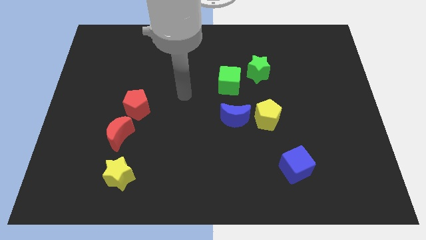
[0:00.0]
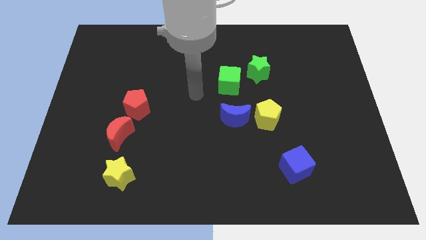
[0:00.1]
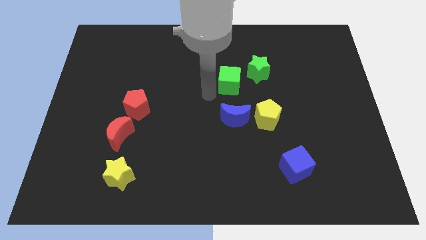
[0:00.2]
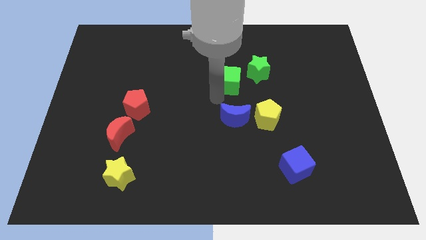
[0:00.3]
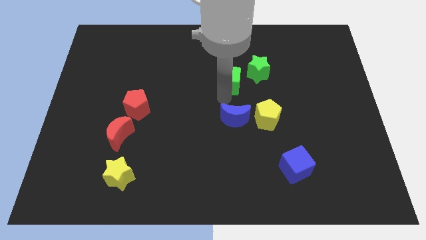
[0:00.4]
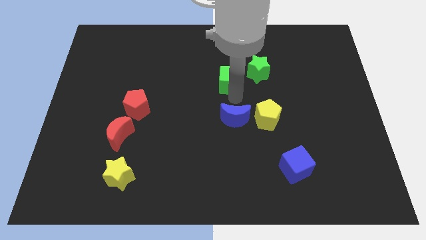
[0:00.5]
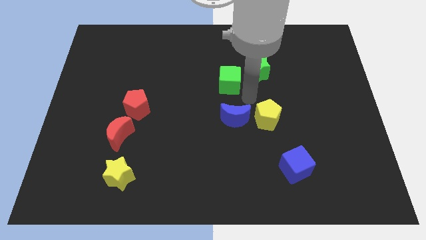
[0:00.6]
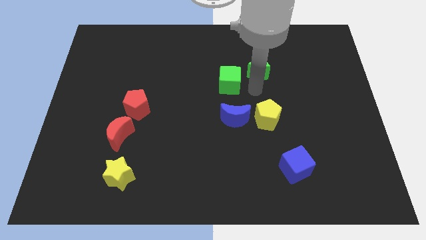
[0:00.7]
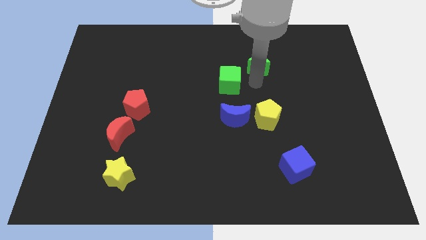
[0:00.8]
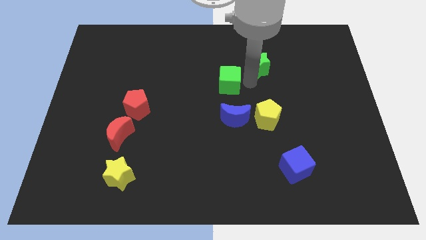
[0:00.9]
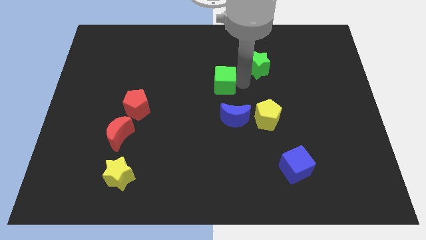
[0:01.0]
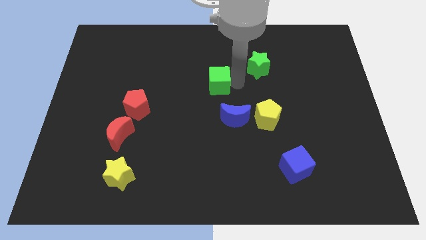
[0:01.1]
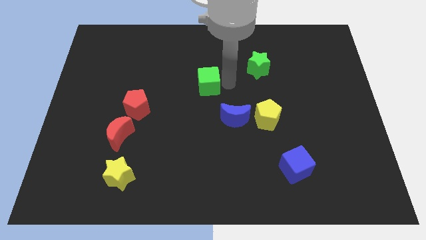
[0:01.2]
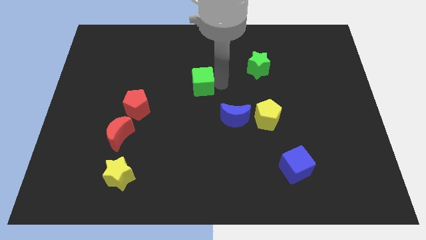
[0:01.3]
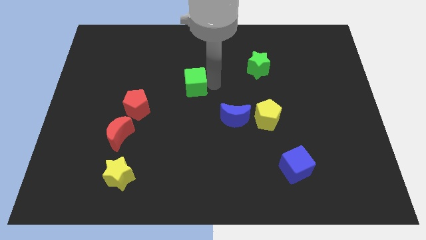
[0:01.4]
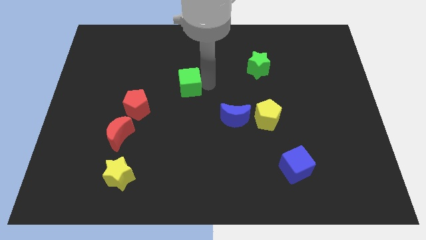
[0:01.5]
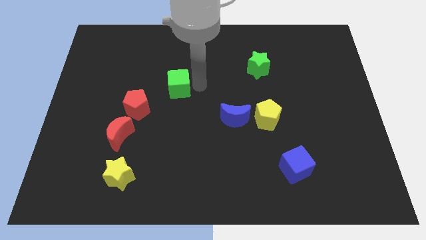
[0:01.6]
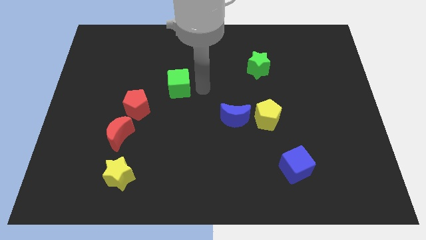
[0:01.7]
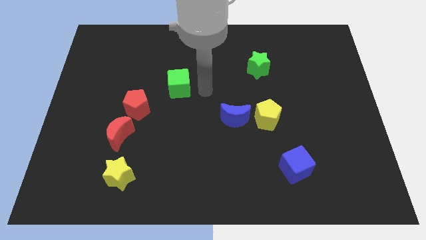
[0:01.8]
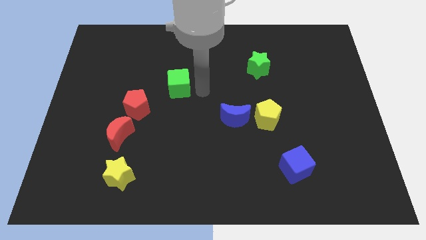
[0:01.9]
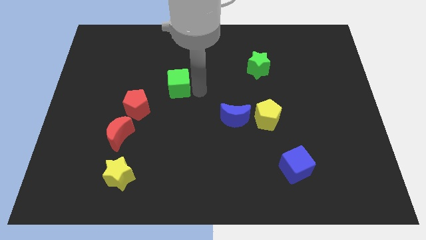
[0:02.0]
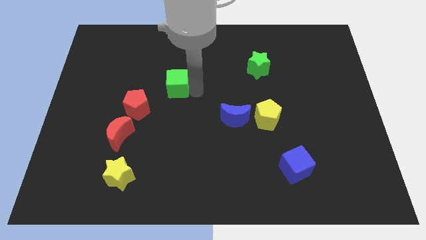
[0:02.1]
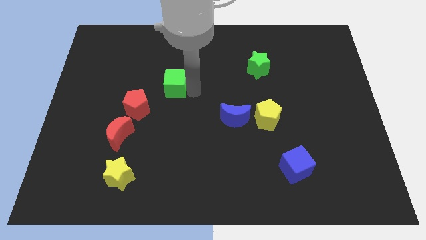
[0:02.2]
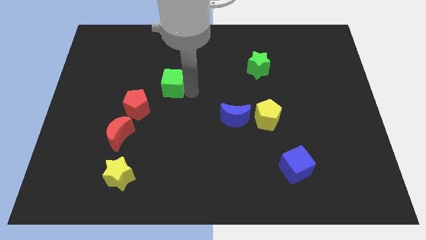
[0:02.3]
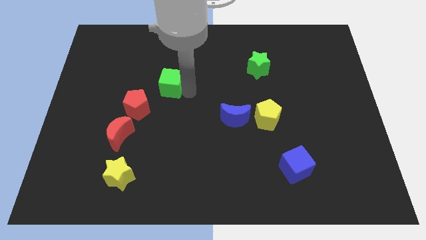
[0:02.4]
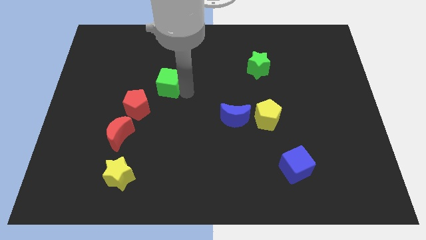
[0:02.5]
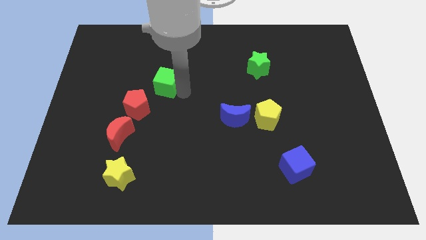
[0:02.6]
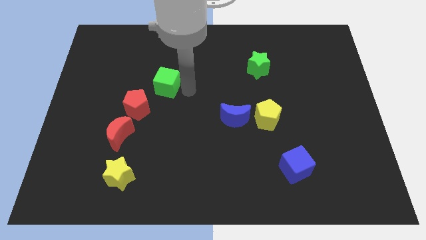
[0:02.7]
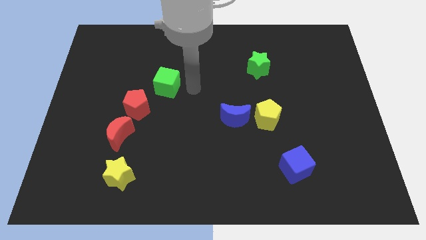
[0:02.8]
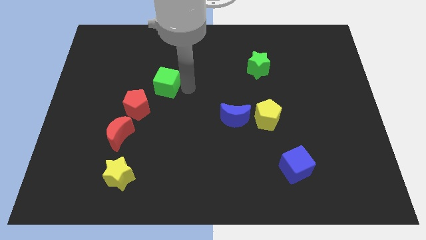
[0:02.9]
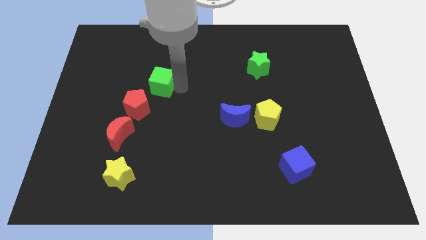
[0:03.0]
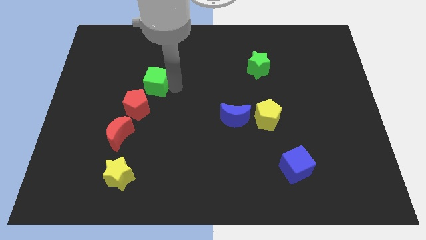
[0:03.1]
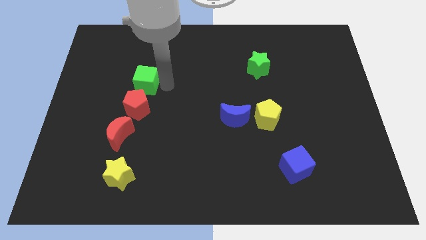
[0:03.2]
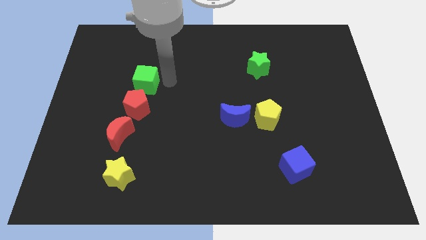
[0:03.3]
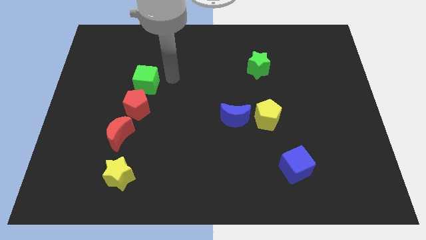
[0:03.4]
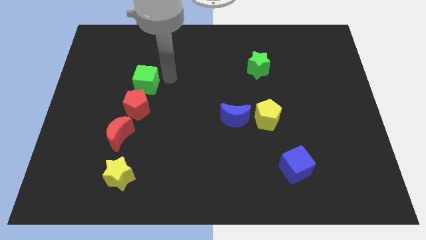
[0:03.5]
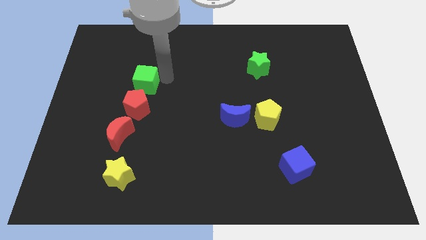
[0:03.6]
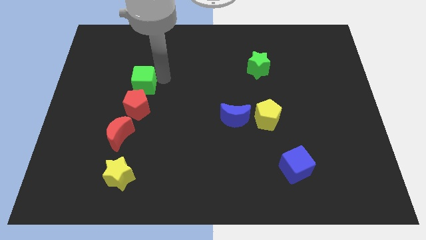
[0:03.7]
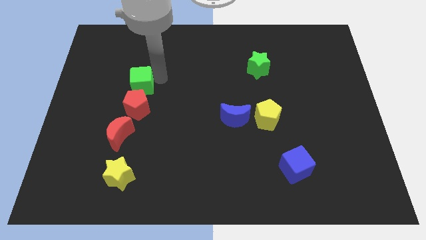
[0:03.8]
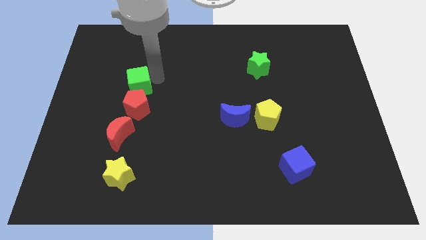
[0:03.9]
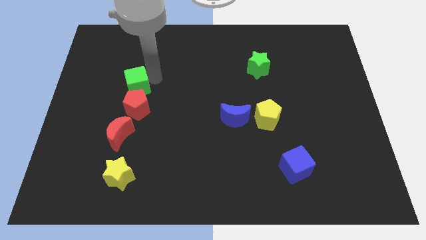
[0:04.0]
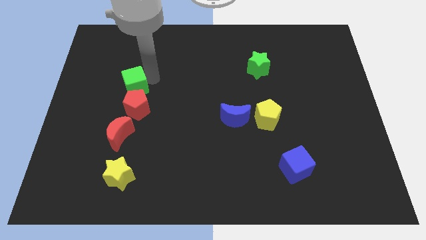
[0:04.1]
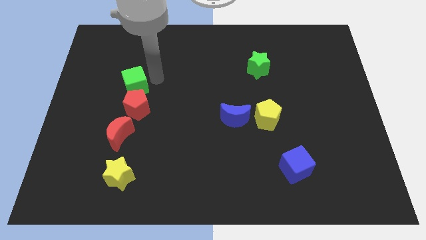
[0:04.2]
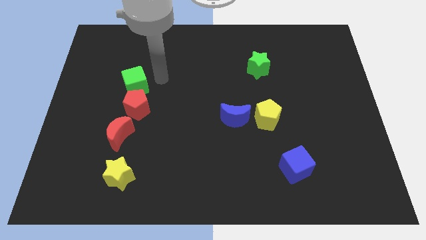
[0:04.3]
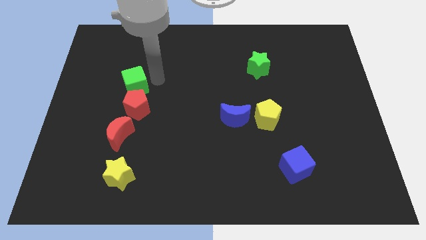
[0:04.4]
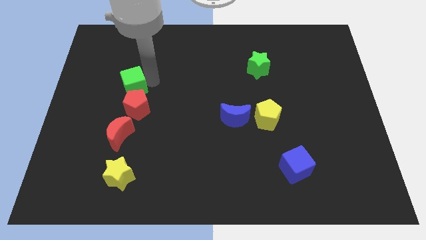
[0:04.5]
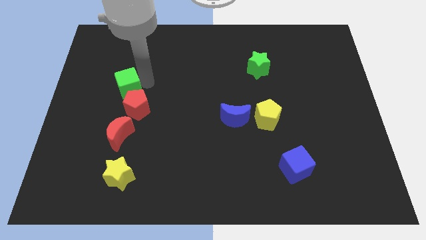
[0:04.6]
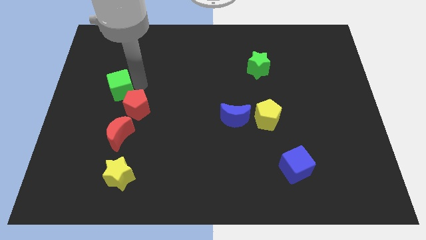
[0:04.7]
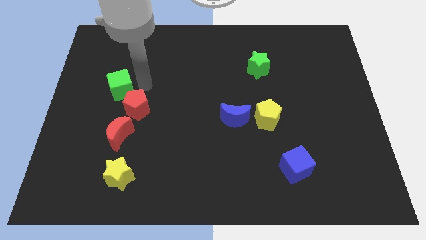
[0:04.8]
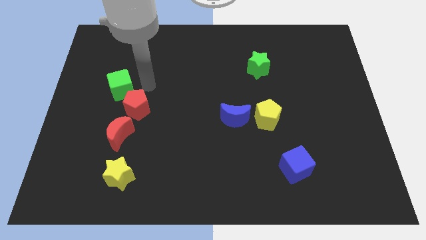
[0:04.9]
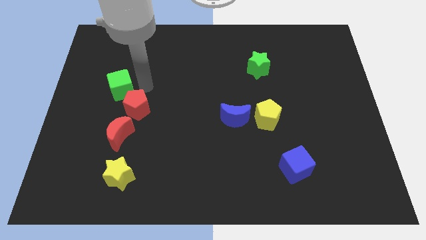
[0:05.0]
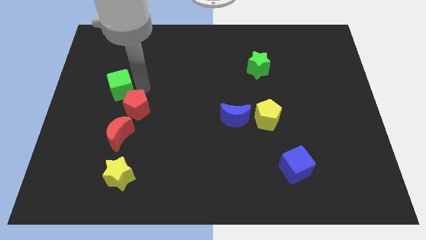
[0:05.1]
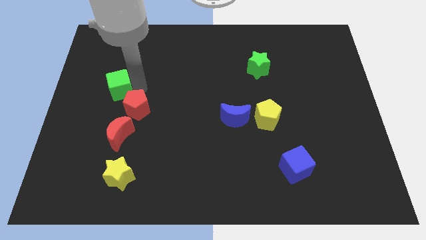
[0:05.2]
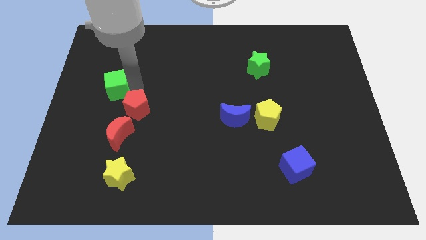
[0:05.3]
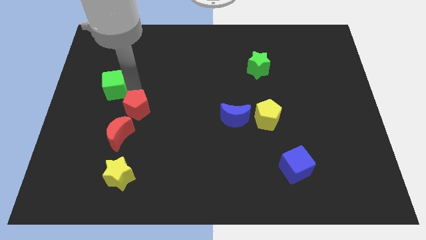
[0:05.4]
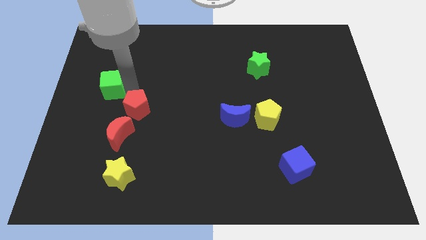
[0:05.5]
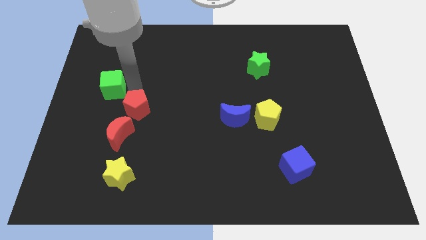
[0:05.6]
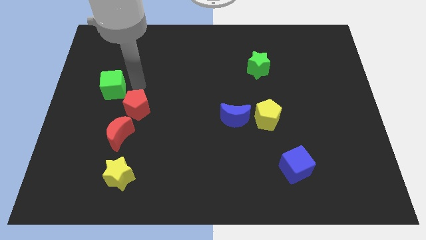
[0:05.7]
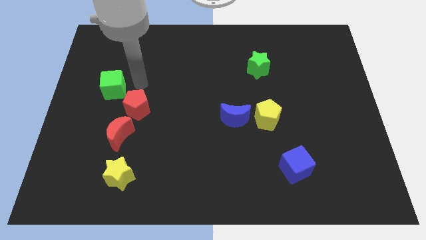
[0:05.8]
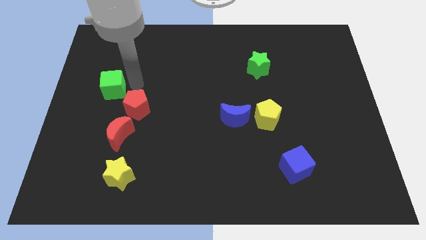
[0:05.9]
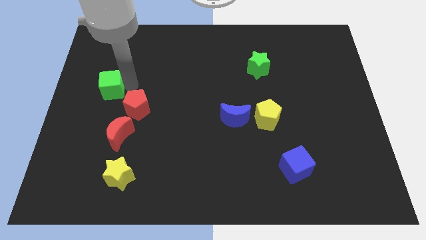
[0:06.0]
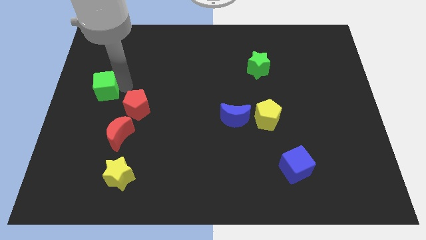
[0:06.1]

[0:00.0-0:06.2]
move the green cube to the left side of the board

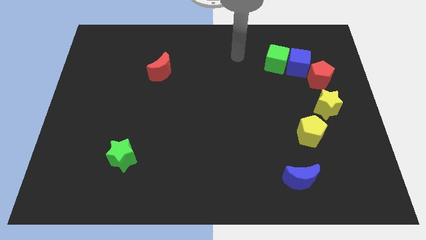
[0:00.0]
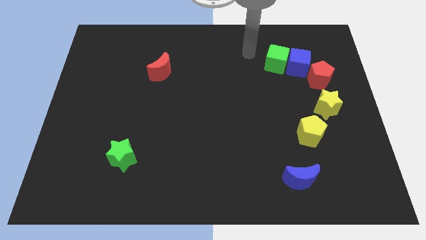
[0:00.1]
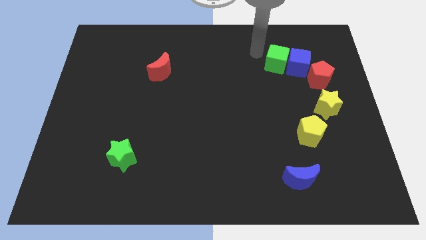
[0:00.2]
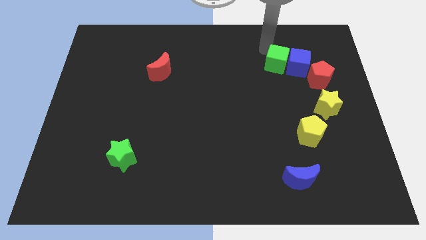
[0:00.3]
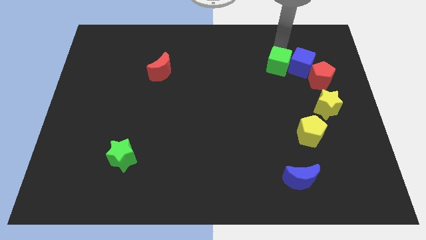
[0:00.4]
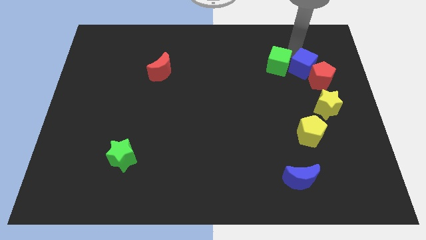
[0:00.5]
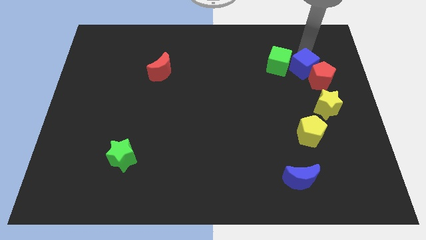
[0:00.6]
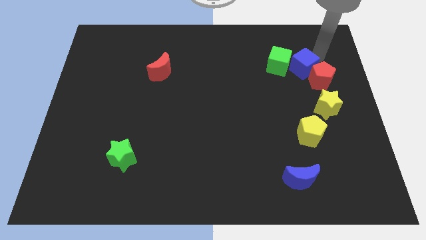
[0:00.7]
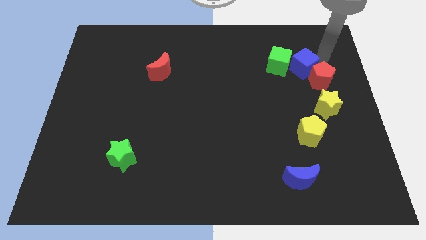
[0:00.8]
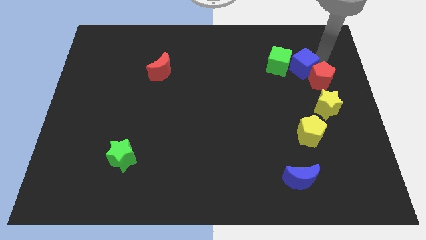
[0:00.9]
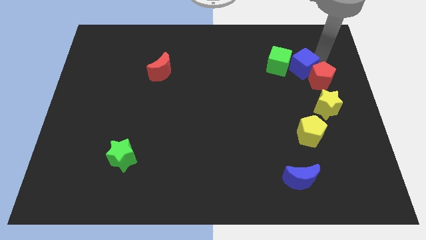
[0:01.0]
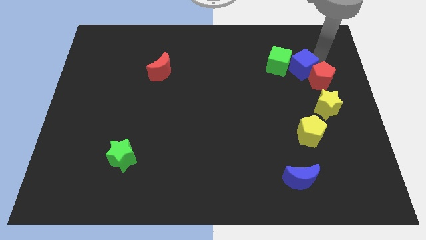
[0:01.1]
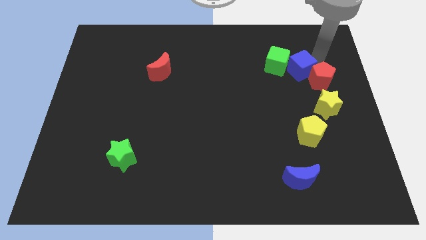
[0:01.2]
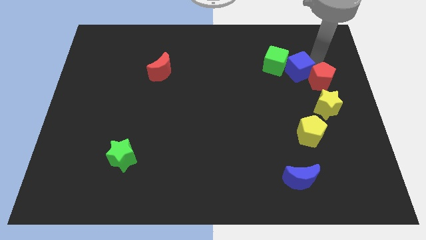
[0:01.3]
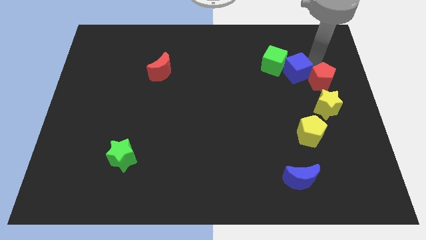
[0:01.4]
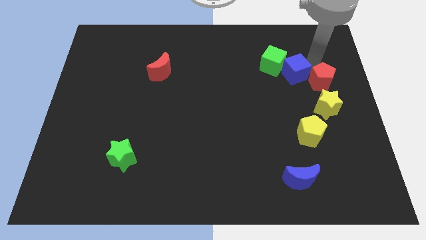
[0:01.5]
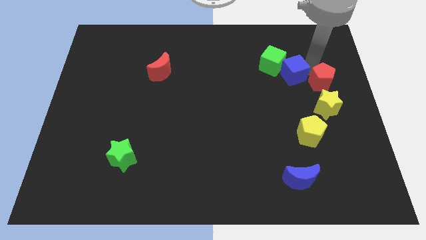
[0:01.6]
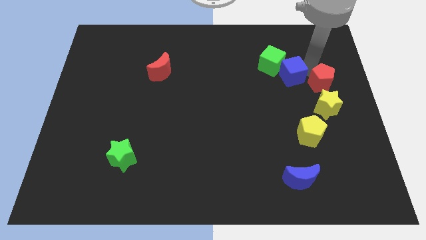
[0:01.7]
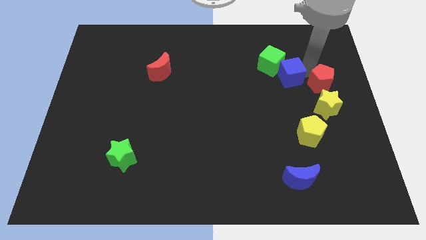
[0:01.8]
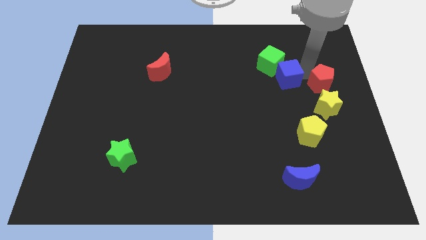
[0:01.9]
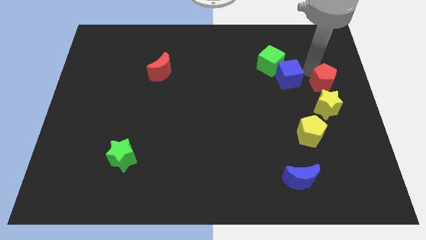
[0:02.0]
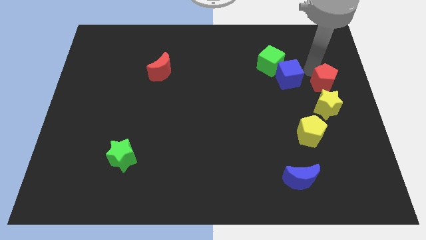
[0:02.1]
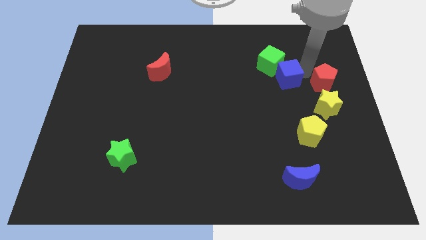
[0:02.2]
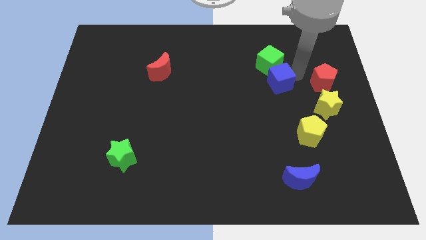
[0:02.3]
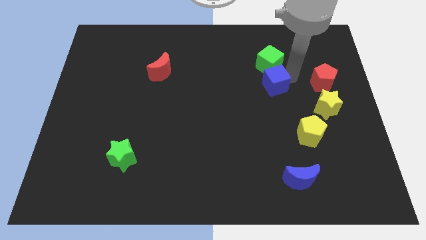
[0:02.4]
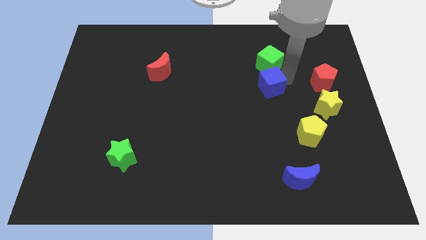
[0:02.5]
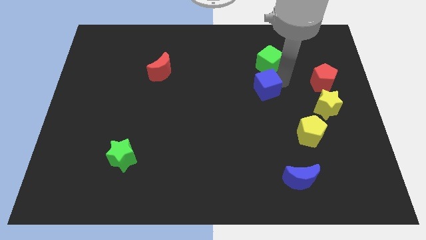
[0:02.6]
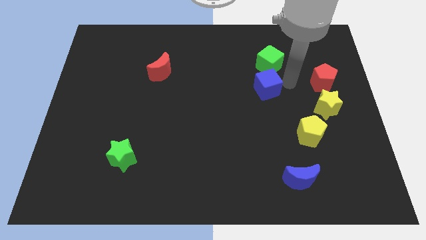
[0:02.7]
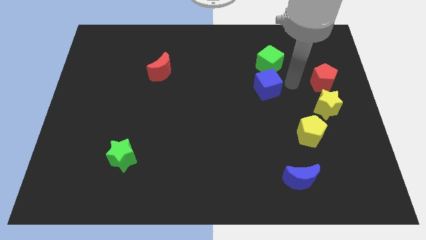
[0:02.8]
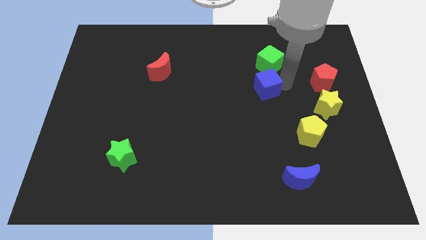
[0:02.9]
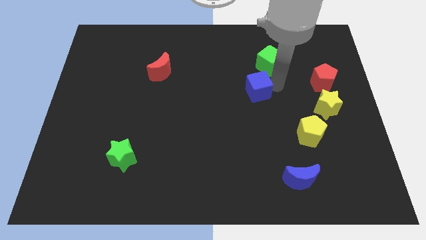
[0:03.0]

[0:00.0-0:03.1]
put the blue cube to the middle
